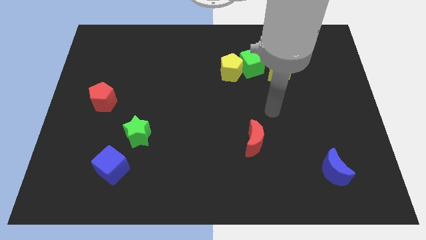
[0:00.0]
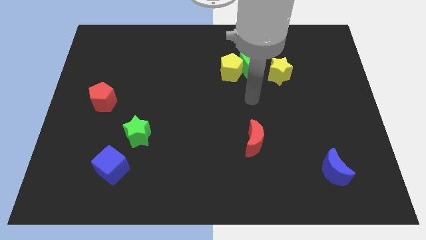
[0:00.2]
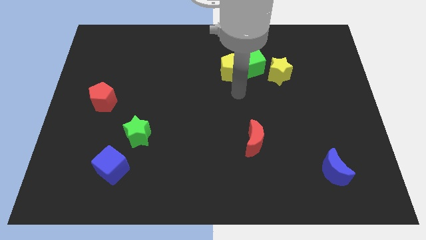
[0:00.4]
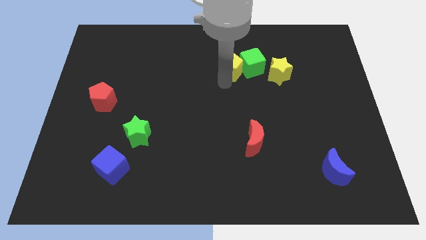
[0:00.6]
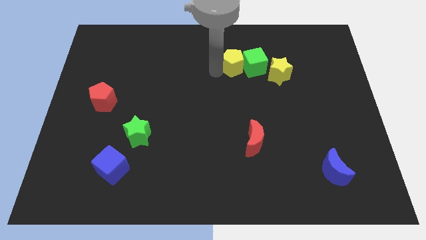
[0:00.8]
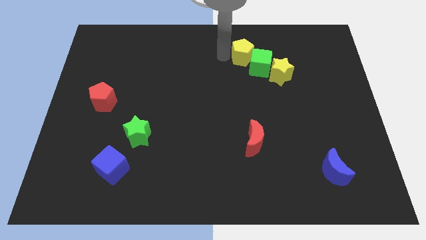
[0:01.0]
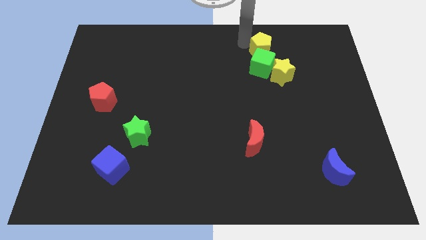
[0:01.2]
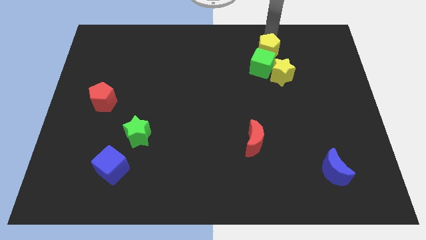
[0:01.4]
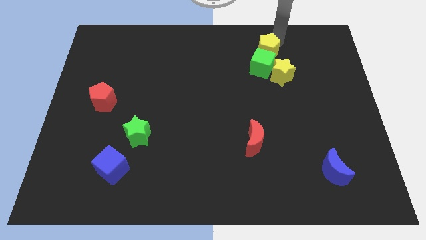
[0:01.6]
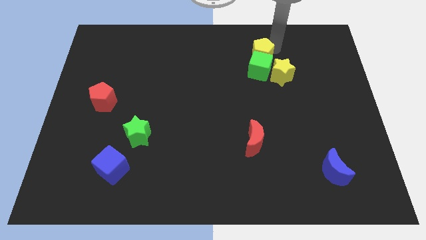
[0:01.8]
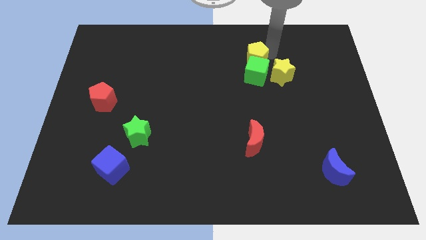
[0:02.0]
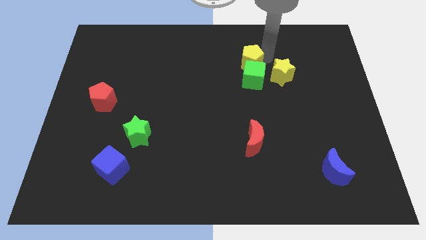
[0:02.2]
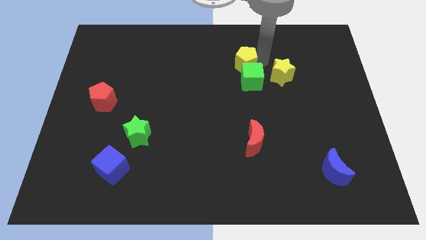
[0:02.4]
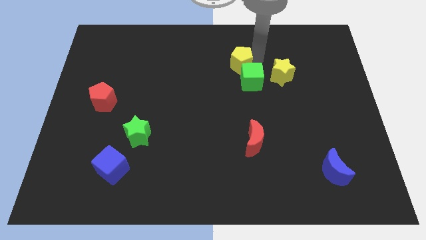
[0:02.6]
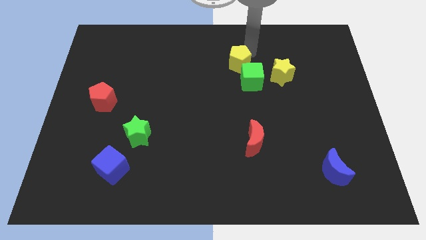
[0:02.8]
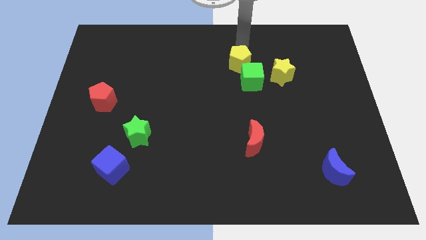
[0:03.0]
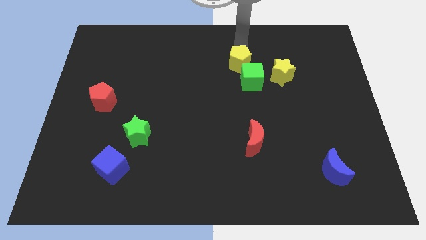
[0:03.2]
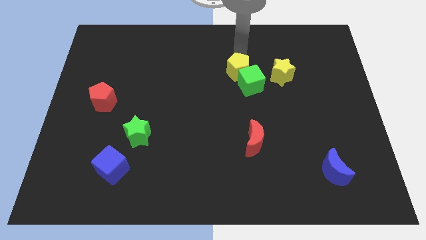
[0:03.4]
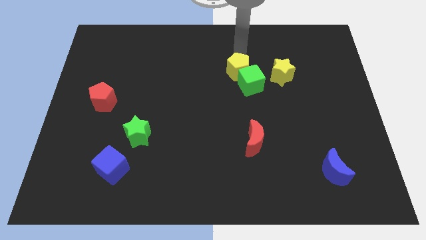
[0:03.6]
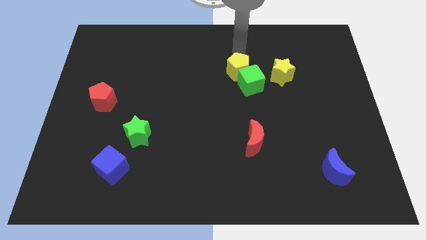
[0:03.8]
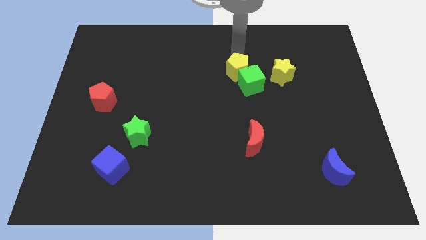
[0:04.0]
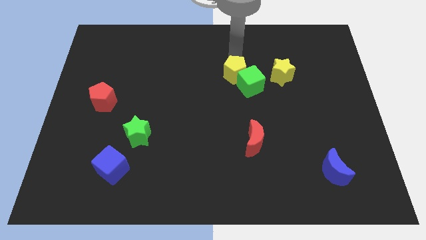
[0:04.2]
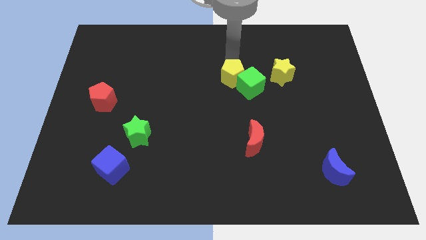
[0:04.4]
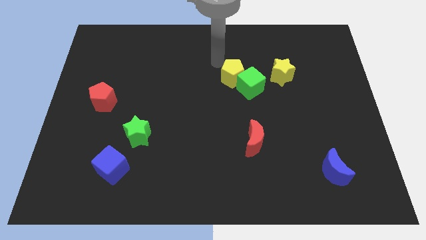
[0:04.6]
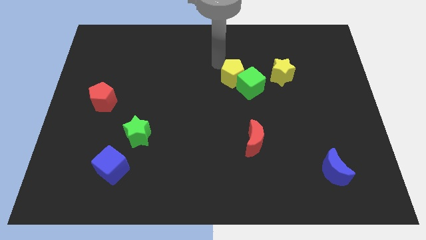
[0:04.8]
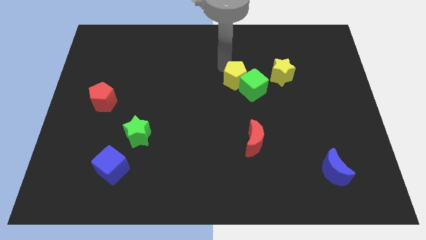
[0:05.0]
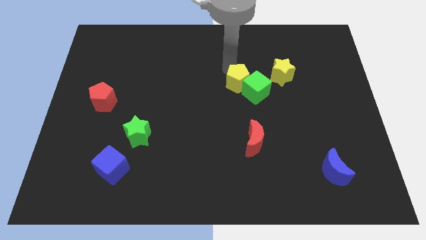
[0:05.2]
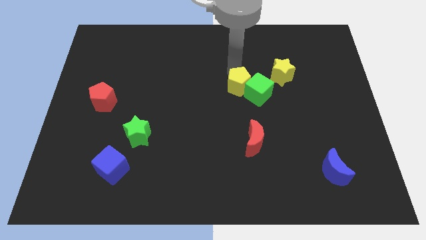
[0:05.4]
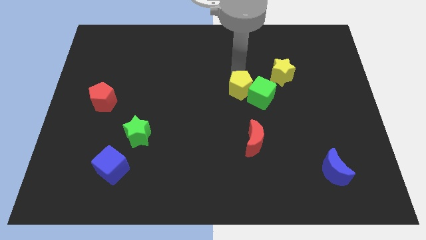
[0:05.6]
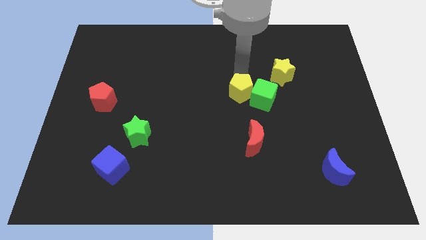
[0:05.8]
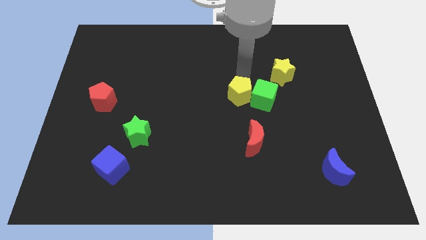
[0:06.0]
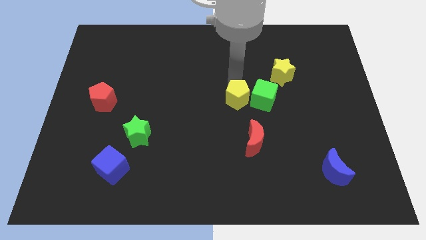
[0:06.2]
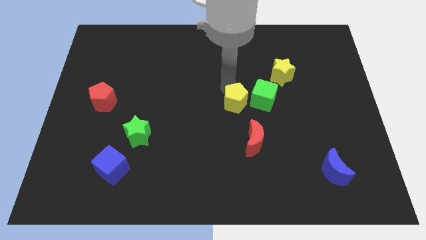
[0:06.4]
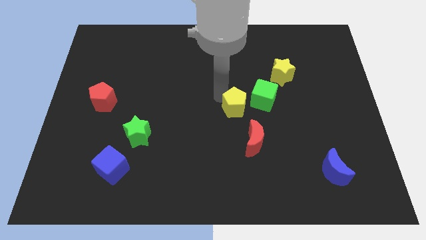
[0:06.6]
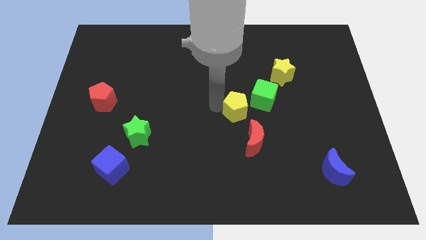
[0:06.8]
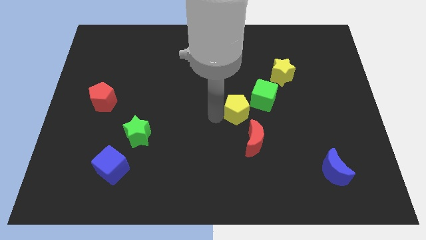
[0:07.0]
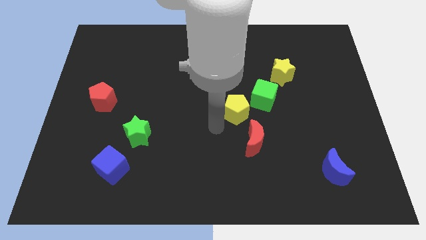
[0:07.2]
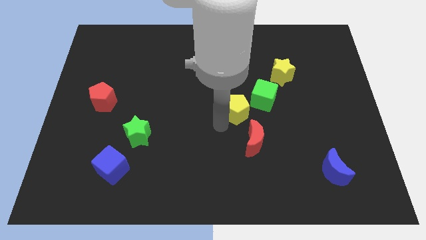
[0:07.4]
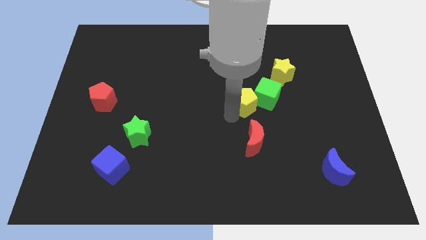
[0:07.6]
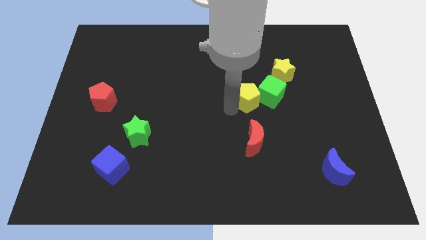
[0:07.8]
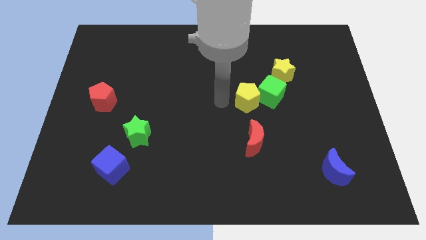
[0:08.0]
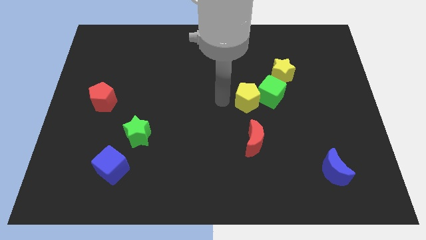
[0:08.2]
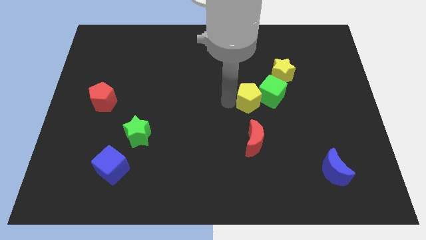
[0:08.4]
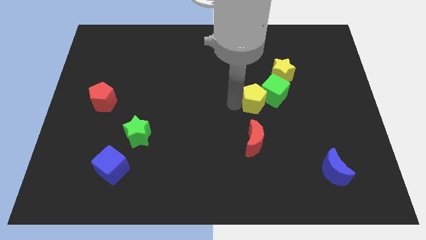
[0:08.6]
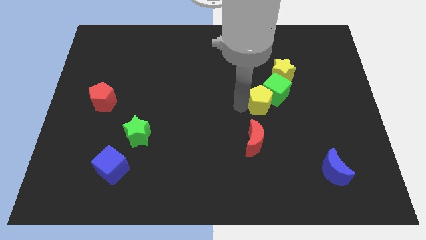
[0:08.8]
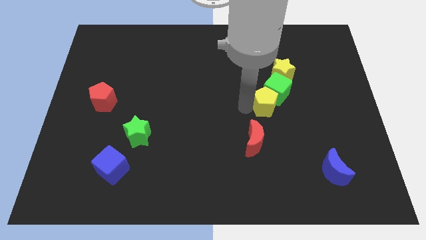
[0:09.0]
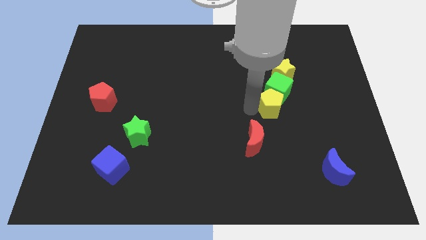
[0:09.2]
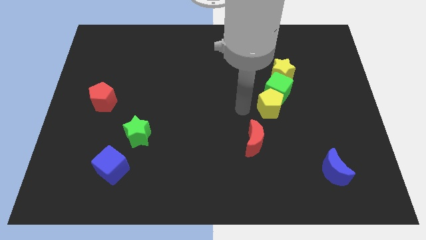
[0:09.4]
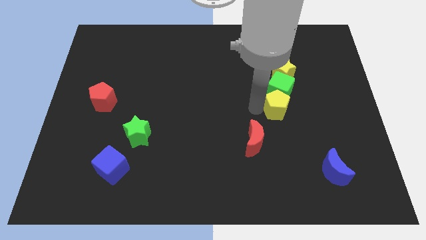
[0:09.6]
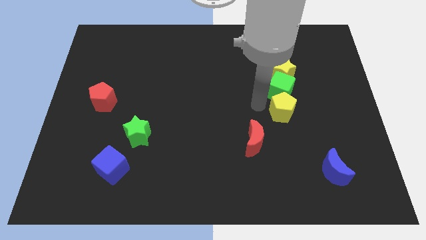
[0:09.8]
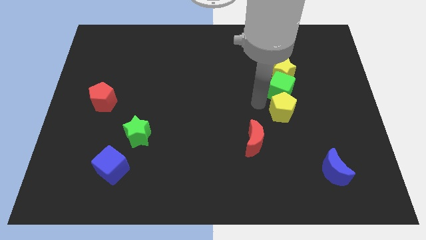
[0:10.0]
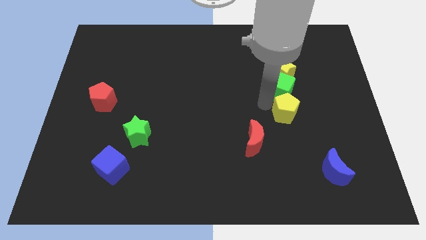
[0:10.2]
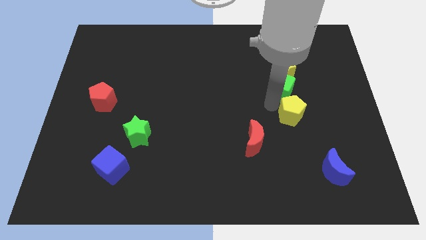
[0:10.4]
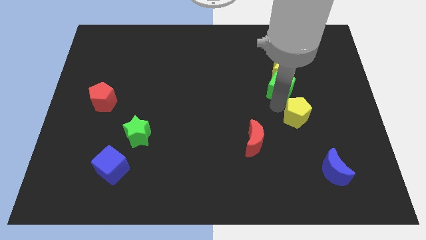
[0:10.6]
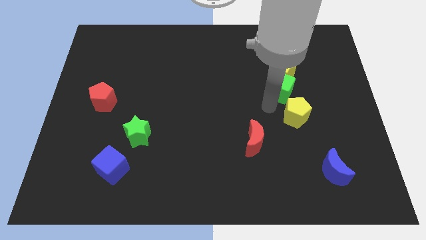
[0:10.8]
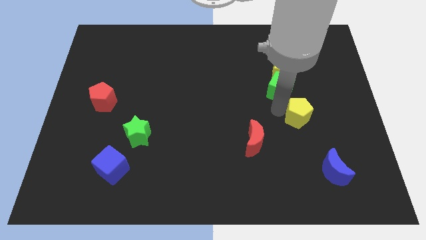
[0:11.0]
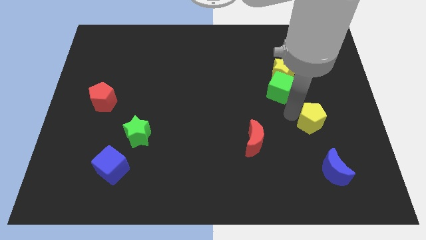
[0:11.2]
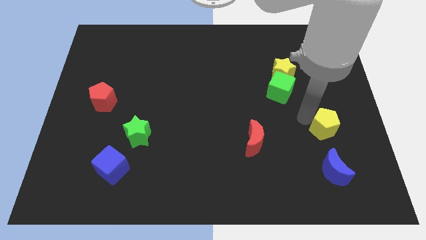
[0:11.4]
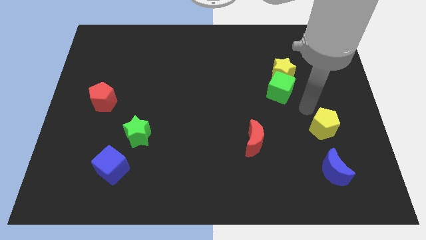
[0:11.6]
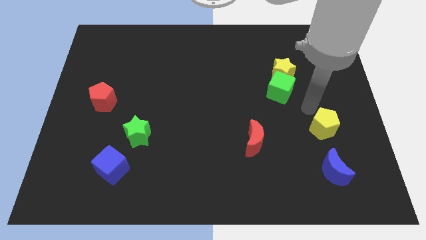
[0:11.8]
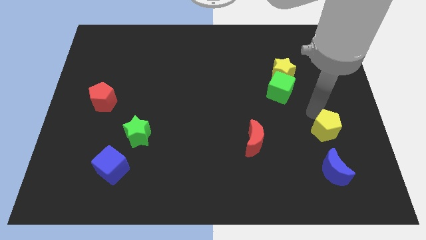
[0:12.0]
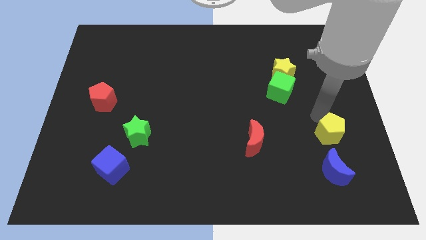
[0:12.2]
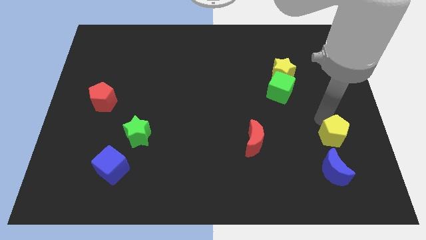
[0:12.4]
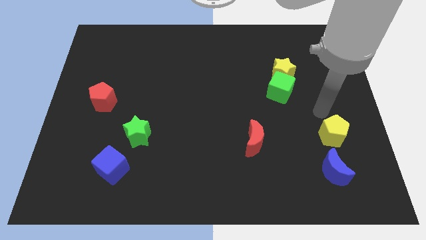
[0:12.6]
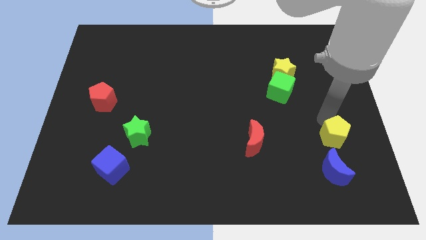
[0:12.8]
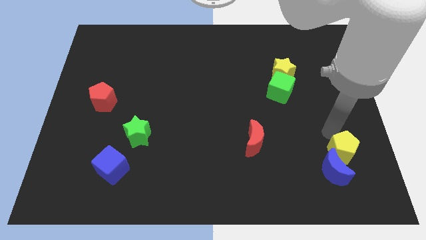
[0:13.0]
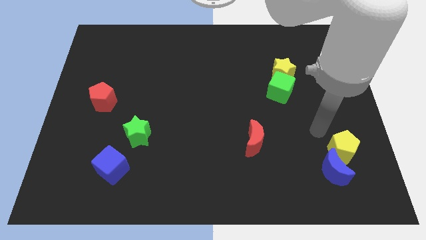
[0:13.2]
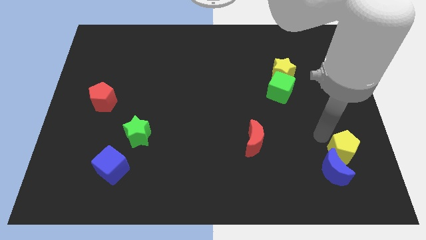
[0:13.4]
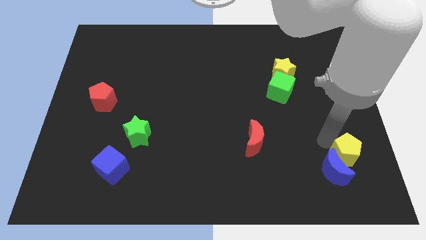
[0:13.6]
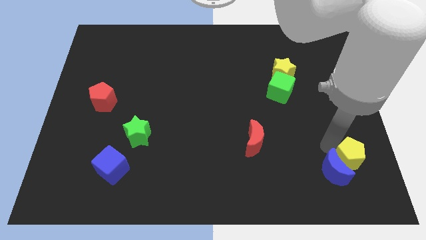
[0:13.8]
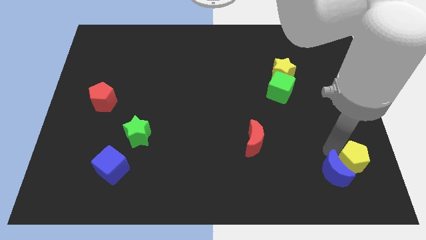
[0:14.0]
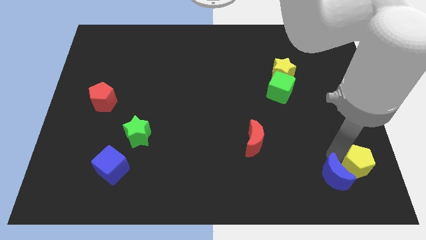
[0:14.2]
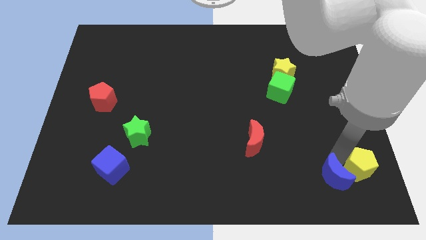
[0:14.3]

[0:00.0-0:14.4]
push the yellow pentagon to the lower right corner
